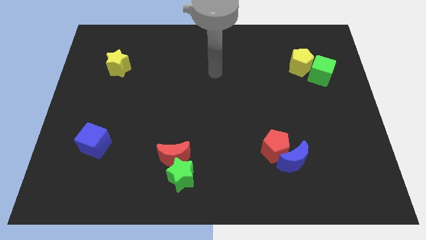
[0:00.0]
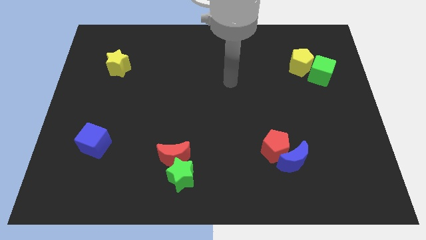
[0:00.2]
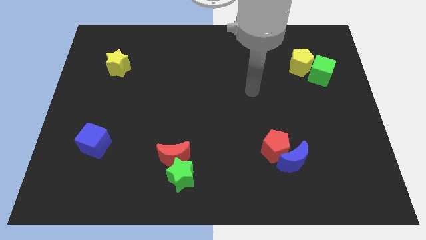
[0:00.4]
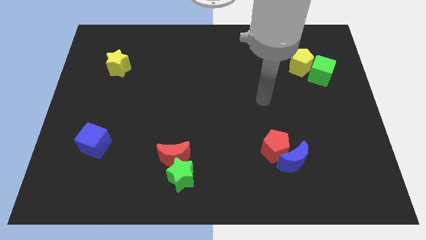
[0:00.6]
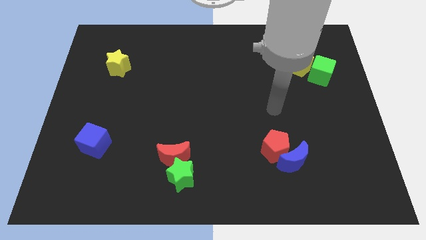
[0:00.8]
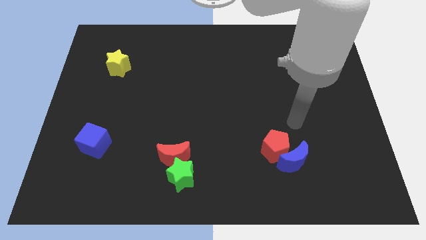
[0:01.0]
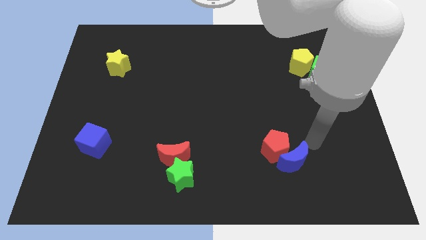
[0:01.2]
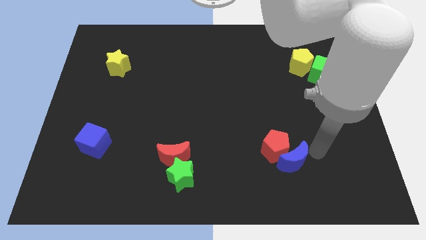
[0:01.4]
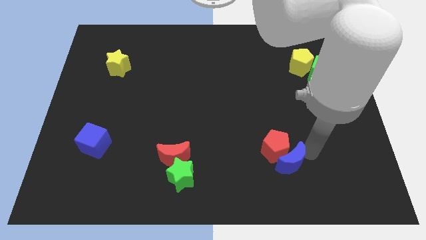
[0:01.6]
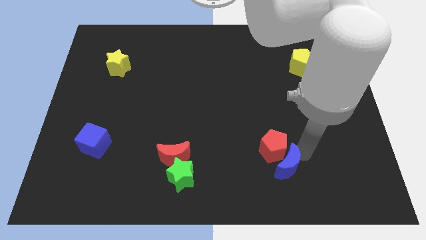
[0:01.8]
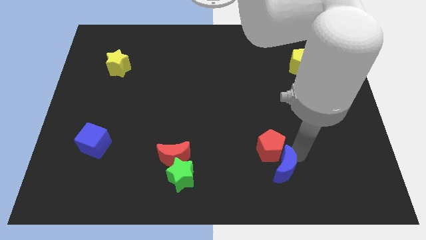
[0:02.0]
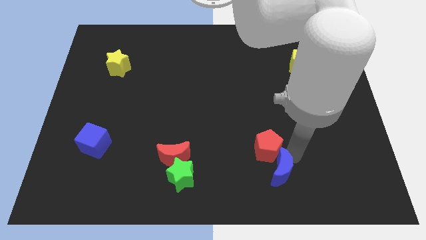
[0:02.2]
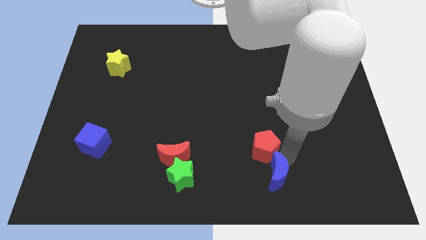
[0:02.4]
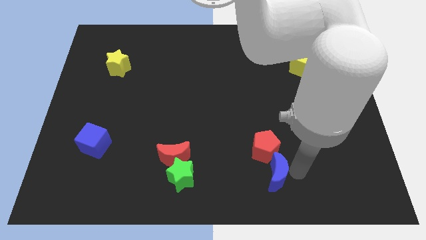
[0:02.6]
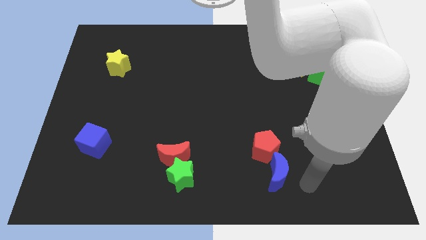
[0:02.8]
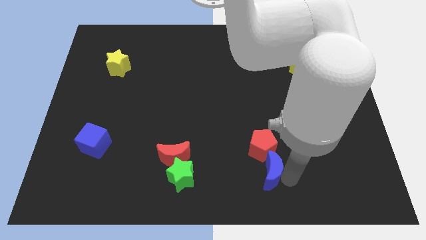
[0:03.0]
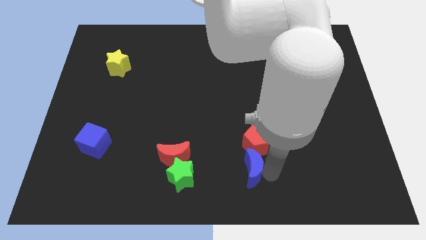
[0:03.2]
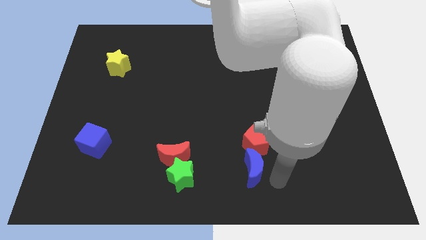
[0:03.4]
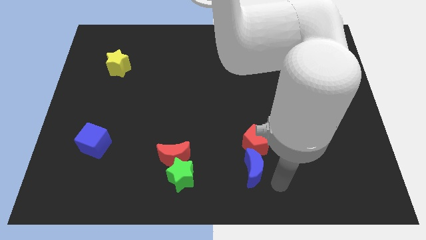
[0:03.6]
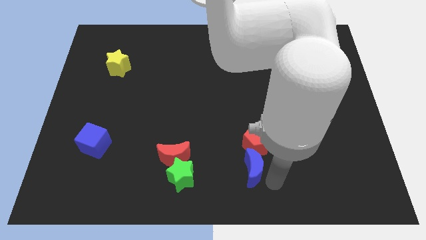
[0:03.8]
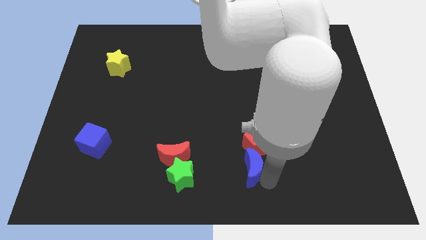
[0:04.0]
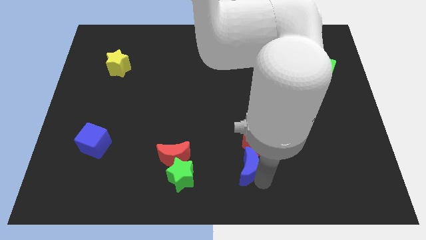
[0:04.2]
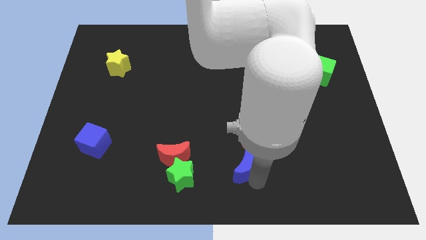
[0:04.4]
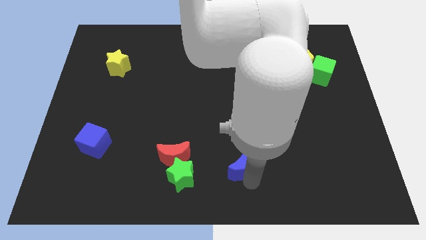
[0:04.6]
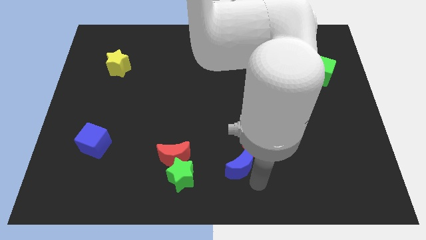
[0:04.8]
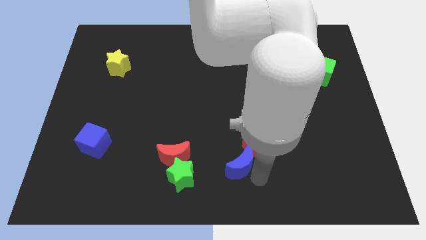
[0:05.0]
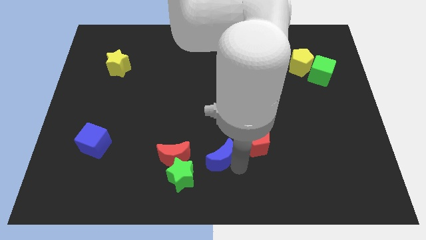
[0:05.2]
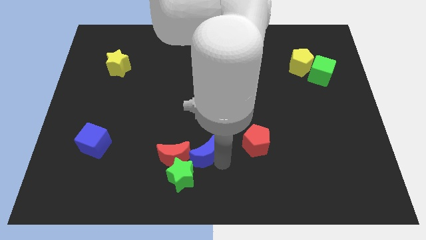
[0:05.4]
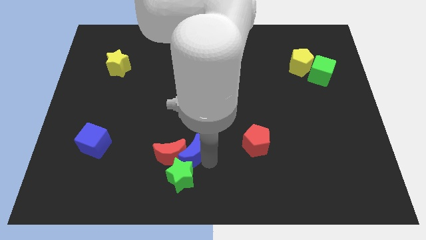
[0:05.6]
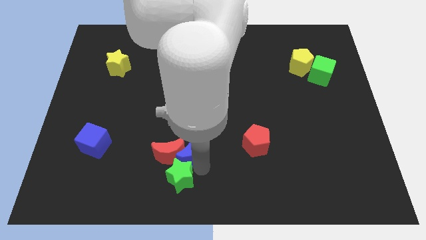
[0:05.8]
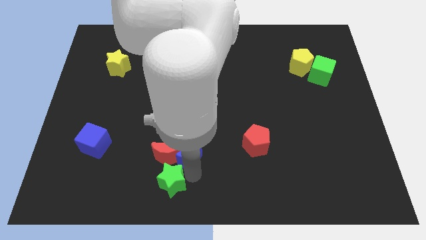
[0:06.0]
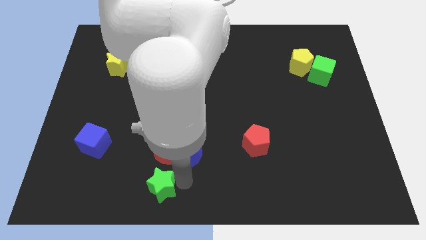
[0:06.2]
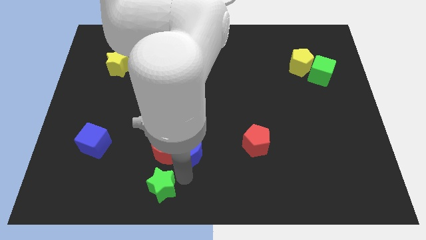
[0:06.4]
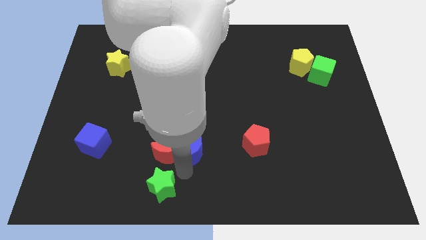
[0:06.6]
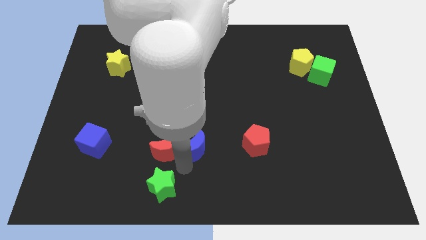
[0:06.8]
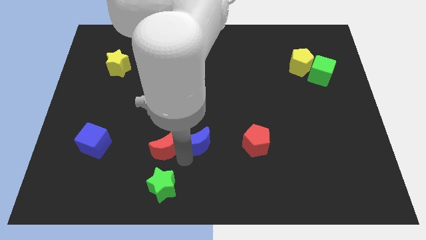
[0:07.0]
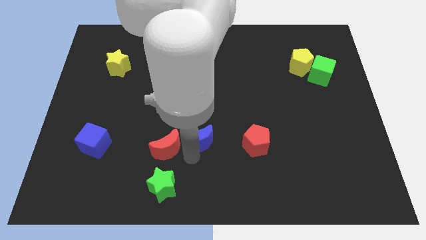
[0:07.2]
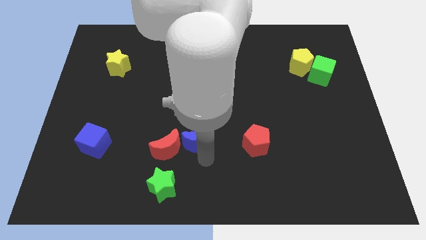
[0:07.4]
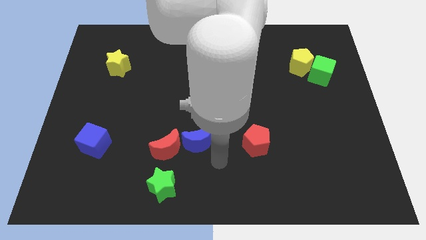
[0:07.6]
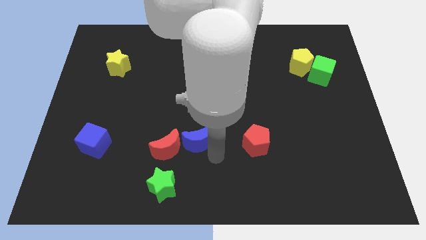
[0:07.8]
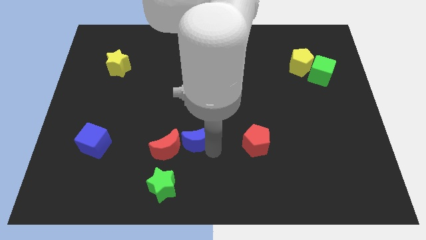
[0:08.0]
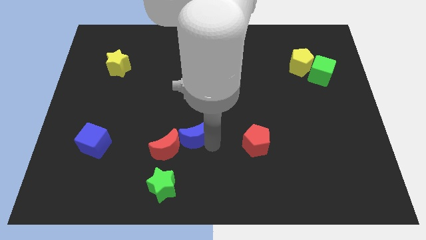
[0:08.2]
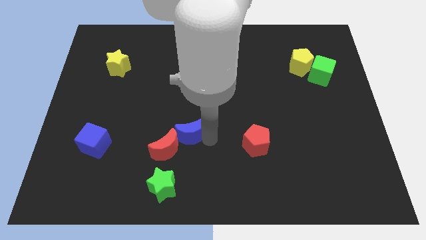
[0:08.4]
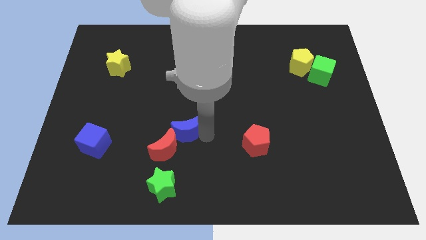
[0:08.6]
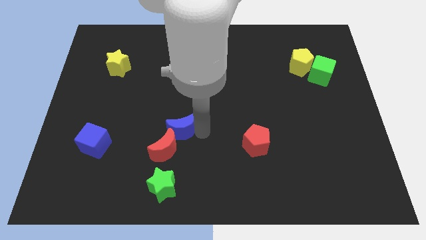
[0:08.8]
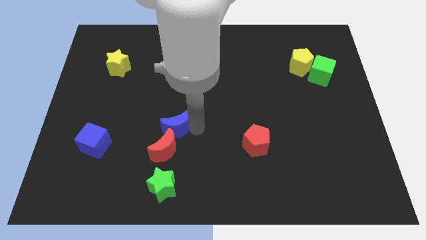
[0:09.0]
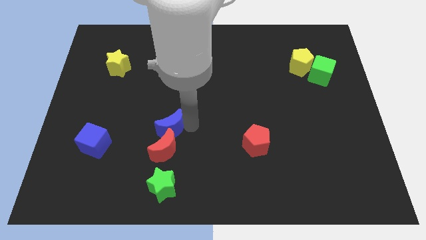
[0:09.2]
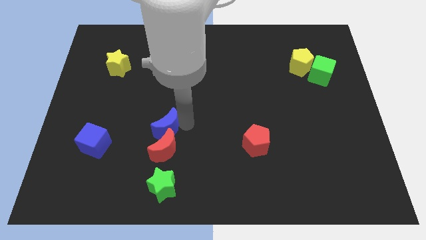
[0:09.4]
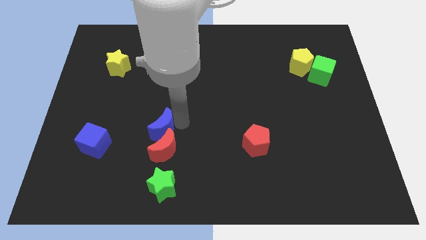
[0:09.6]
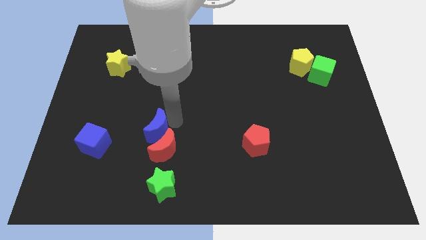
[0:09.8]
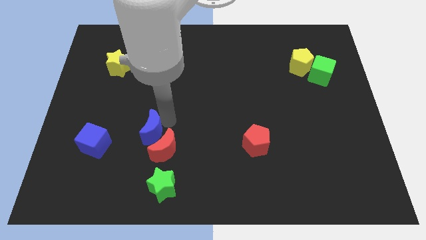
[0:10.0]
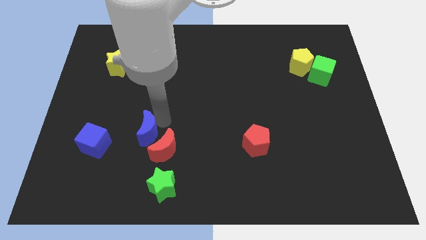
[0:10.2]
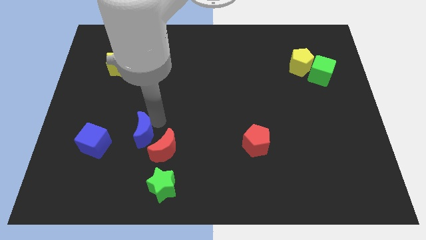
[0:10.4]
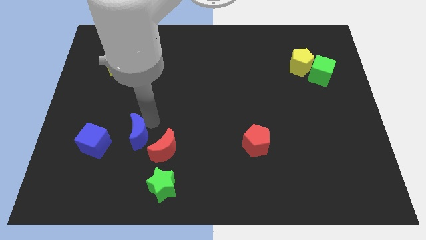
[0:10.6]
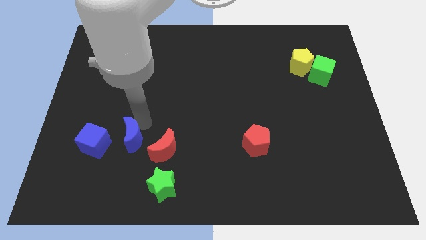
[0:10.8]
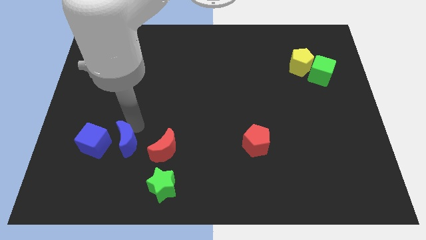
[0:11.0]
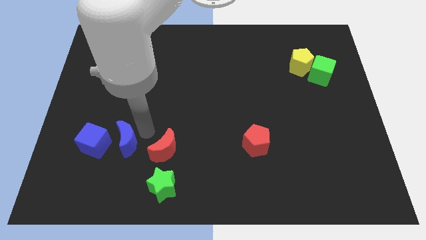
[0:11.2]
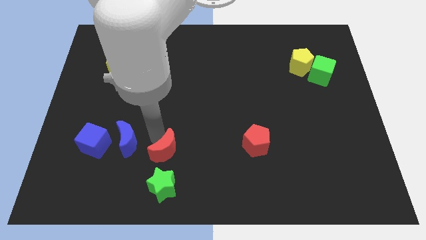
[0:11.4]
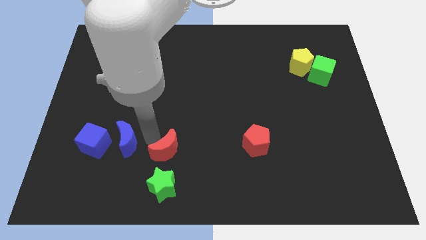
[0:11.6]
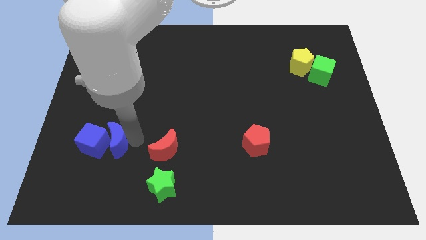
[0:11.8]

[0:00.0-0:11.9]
move the blue moon to the blue cube

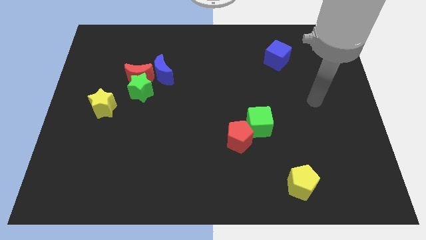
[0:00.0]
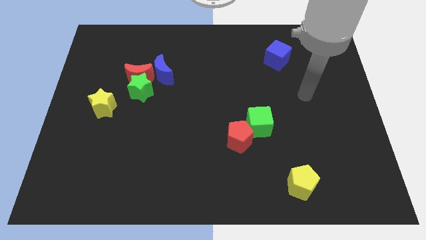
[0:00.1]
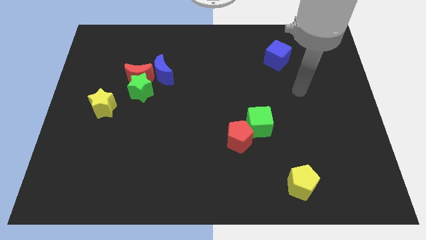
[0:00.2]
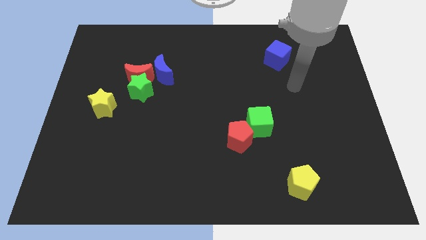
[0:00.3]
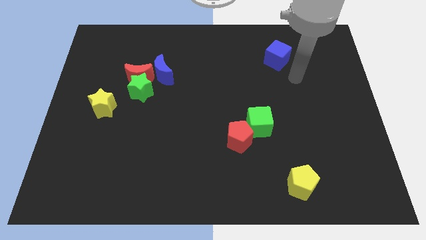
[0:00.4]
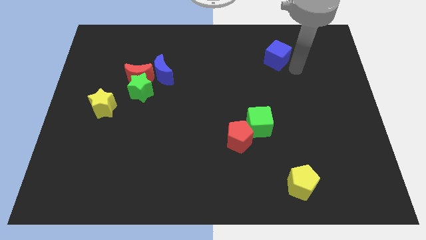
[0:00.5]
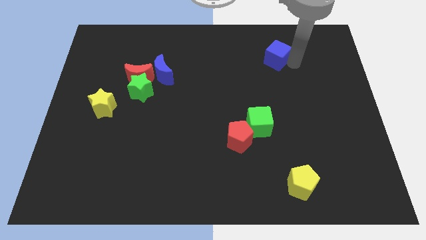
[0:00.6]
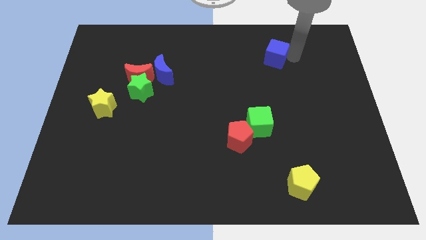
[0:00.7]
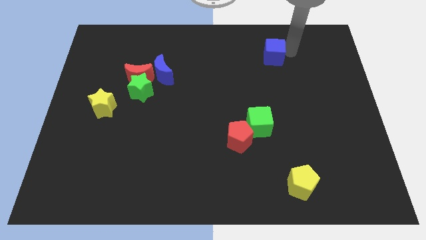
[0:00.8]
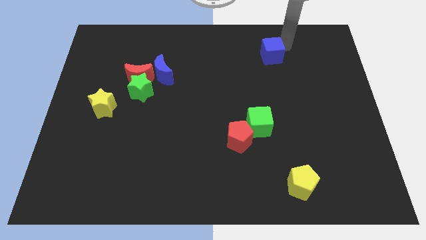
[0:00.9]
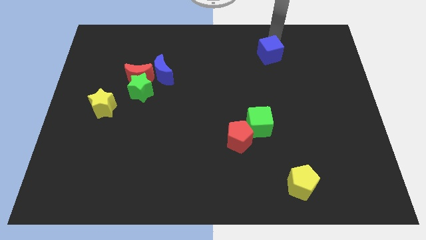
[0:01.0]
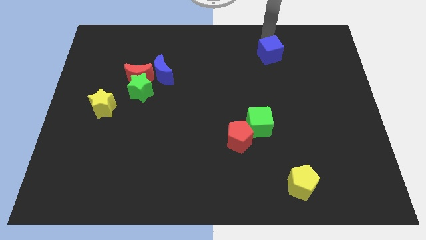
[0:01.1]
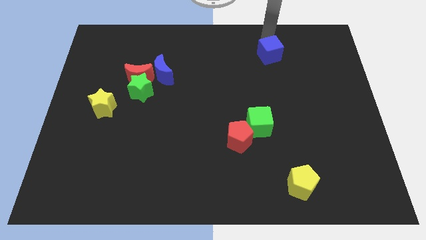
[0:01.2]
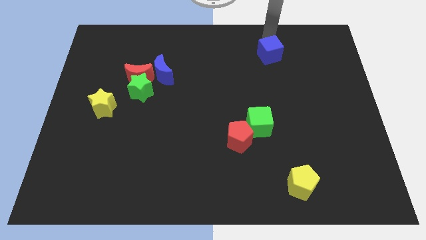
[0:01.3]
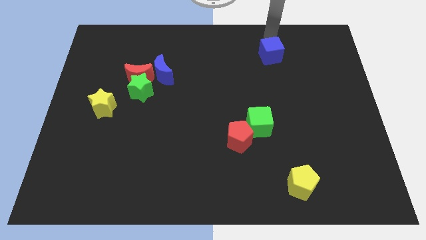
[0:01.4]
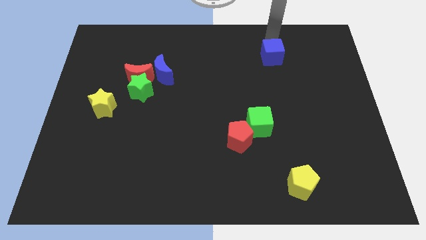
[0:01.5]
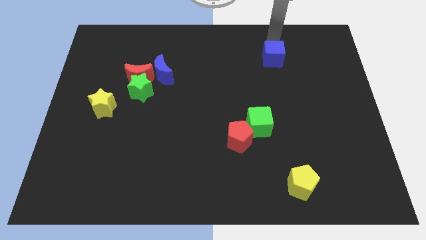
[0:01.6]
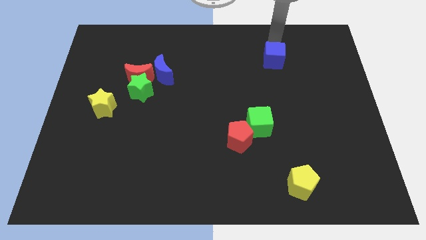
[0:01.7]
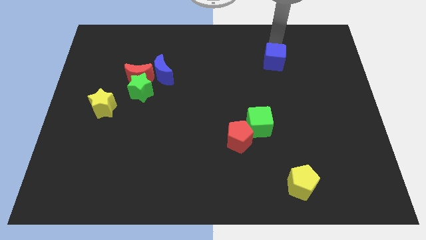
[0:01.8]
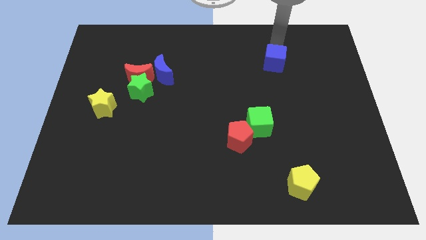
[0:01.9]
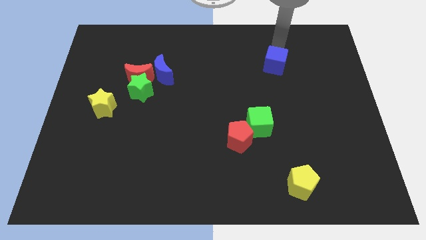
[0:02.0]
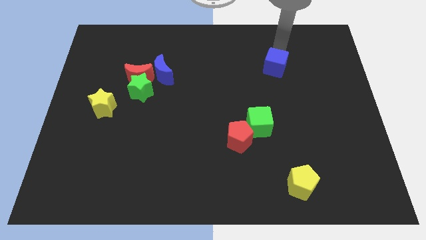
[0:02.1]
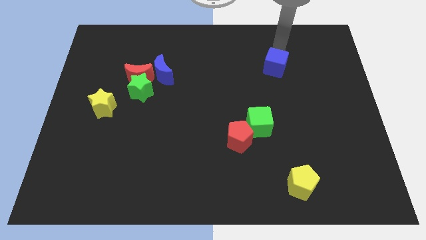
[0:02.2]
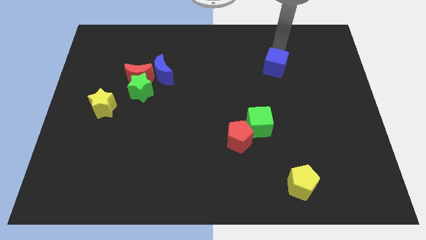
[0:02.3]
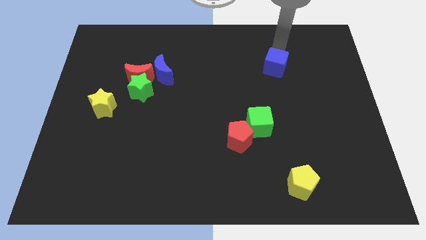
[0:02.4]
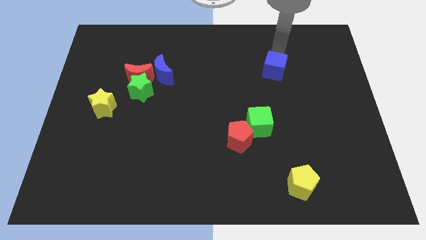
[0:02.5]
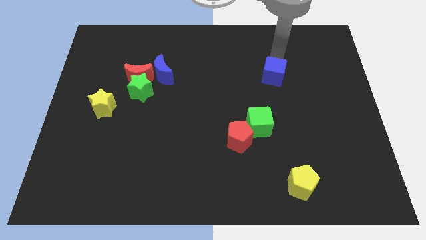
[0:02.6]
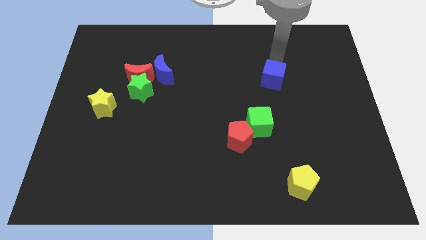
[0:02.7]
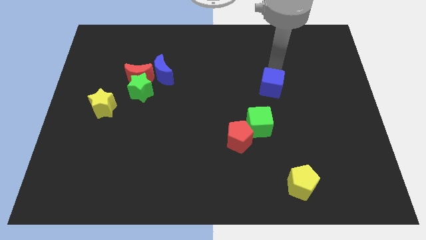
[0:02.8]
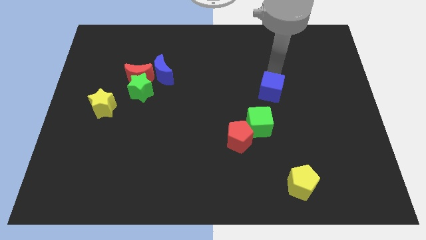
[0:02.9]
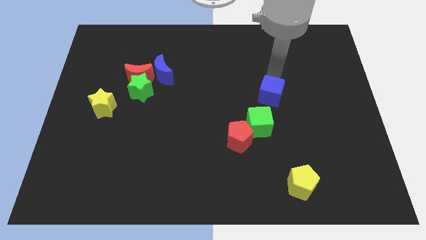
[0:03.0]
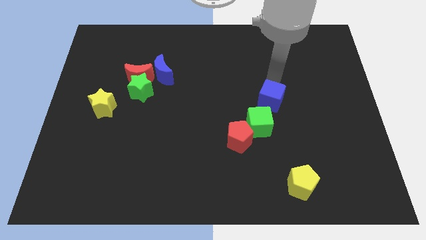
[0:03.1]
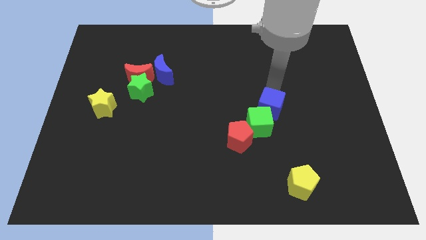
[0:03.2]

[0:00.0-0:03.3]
move the blue cube to the green cube
